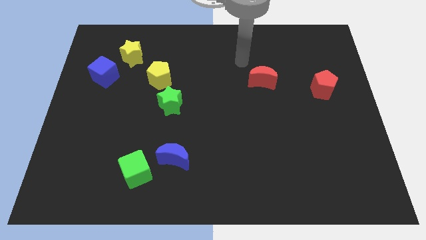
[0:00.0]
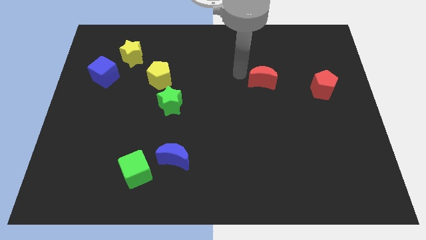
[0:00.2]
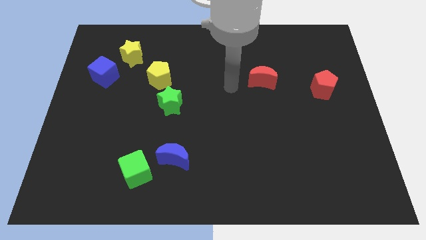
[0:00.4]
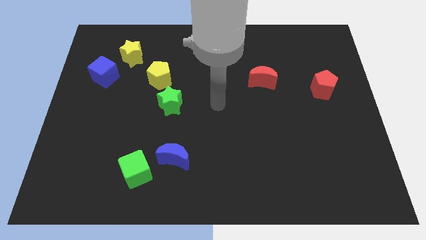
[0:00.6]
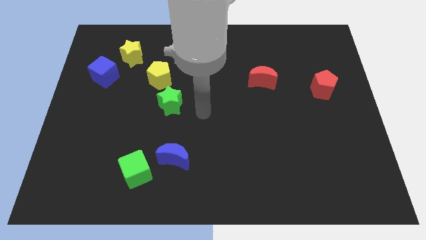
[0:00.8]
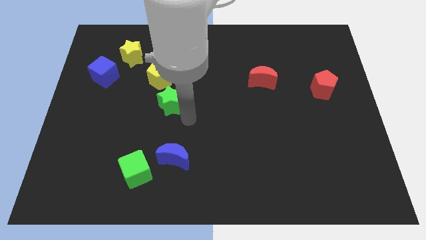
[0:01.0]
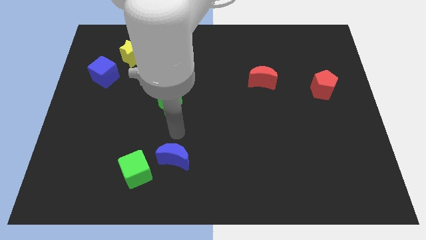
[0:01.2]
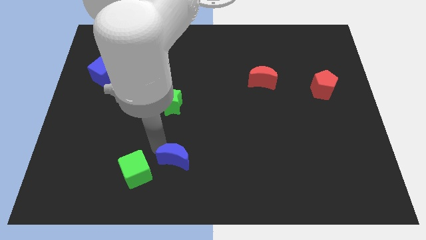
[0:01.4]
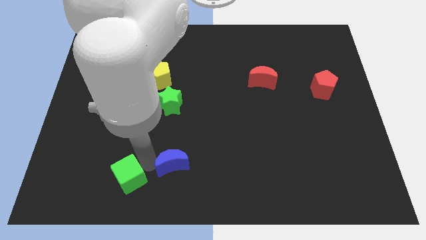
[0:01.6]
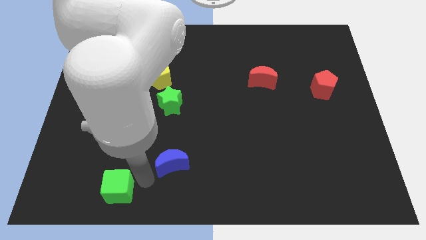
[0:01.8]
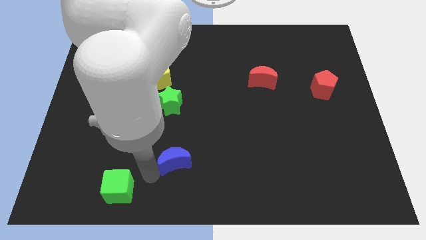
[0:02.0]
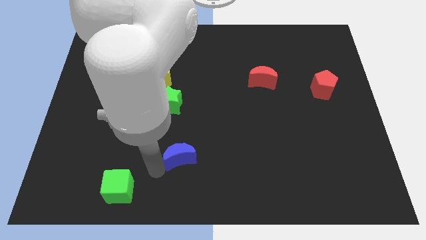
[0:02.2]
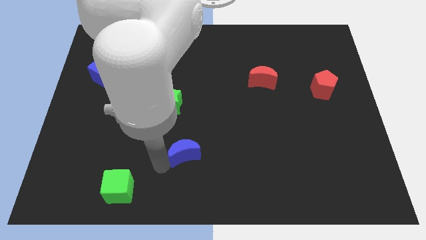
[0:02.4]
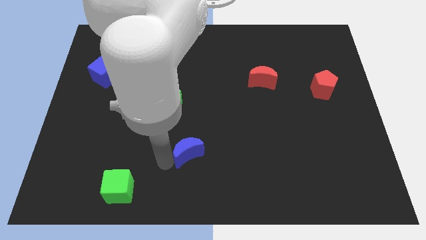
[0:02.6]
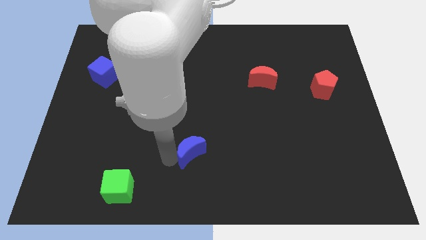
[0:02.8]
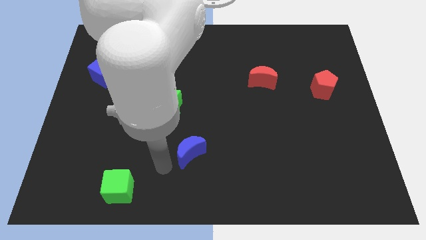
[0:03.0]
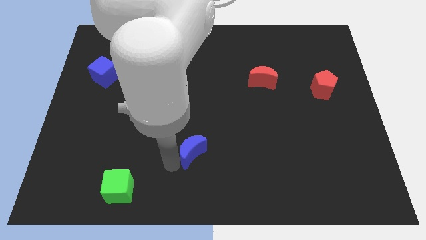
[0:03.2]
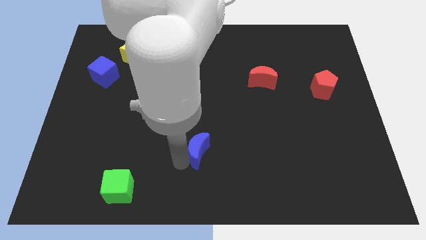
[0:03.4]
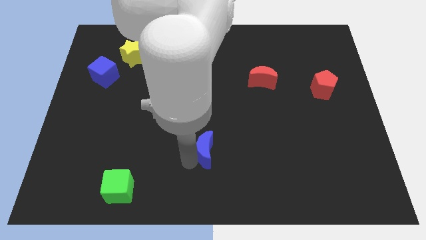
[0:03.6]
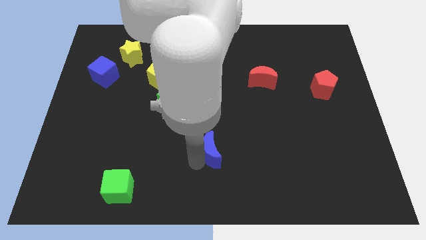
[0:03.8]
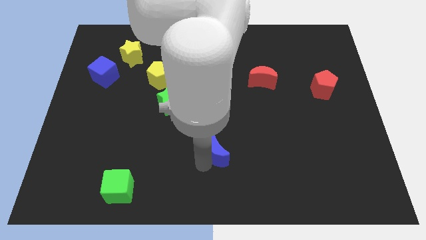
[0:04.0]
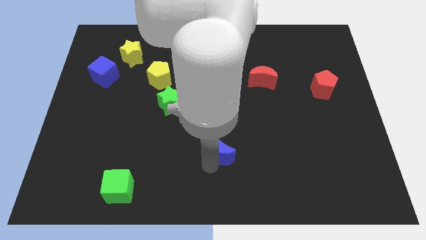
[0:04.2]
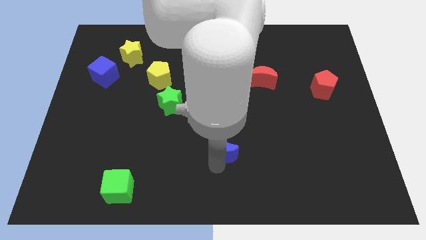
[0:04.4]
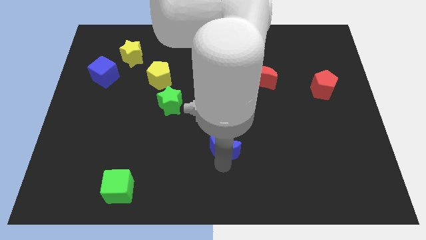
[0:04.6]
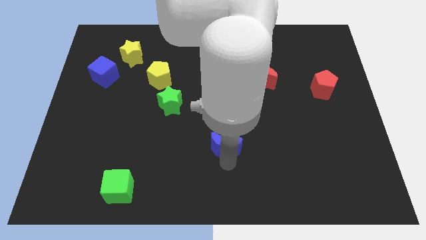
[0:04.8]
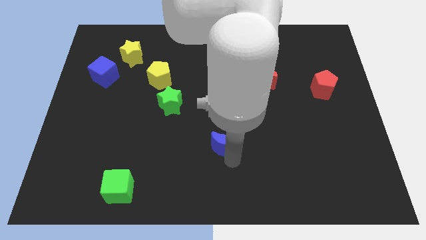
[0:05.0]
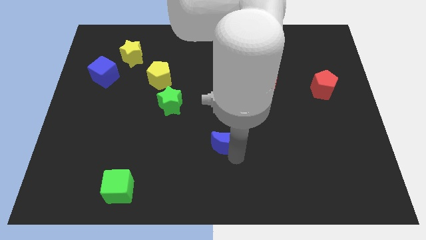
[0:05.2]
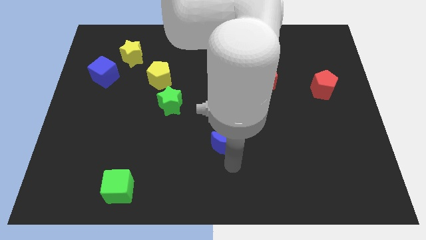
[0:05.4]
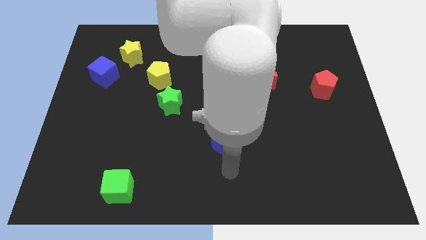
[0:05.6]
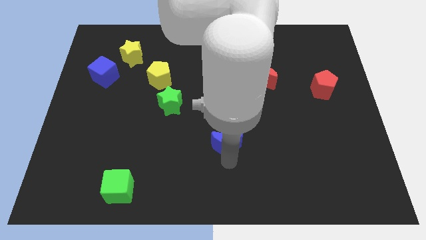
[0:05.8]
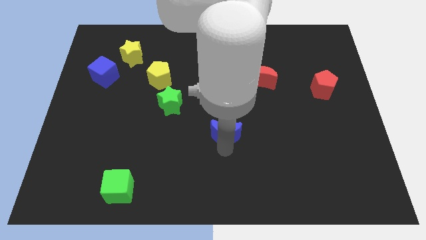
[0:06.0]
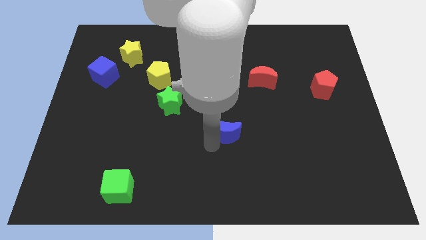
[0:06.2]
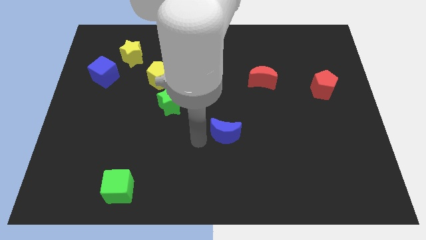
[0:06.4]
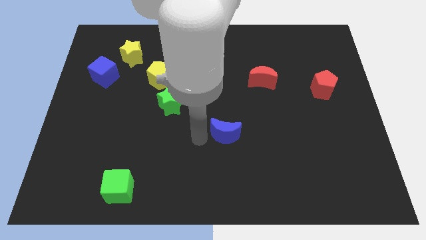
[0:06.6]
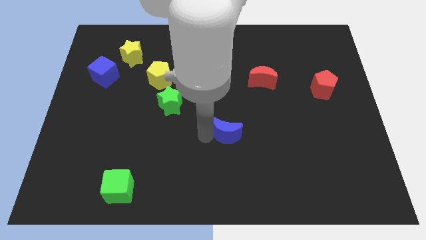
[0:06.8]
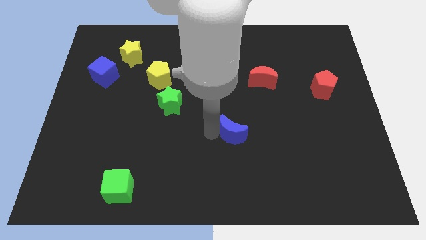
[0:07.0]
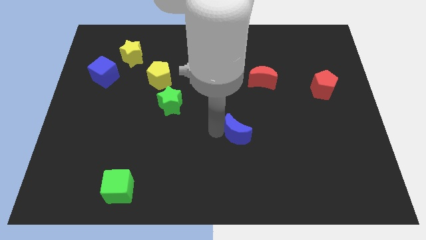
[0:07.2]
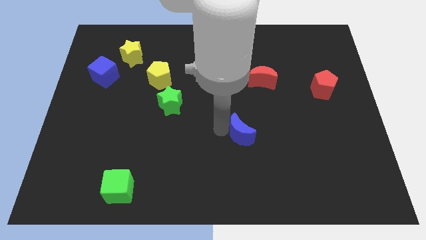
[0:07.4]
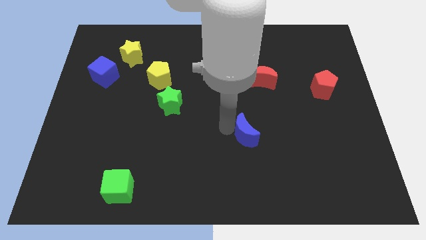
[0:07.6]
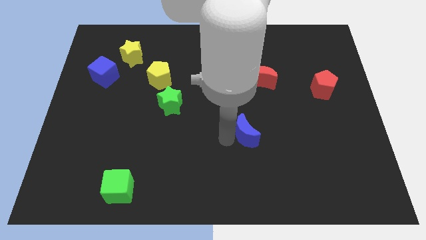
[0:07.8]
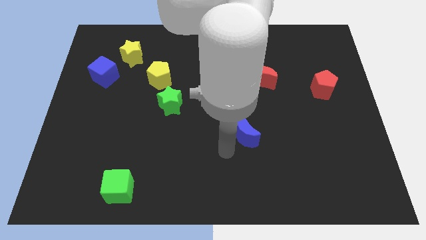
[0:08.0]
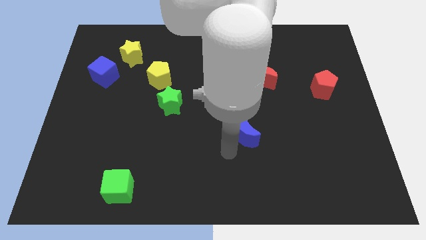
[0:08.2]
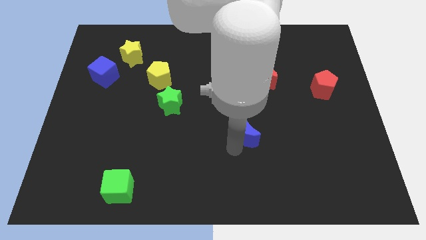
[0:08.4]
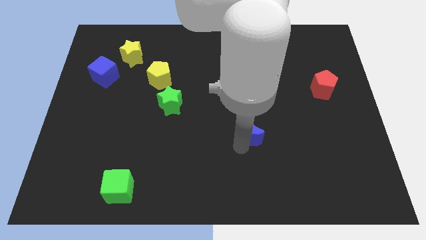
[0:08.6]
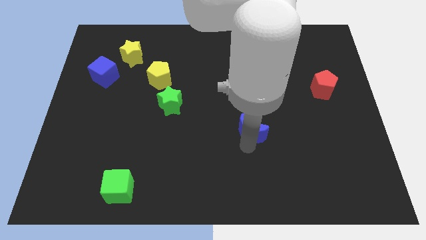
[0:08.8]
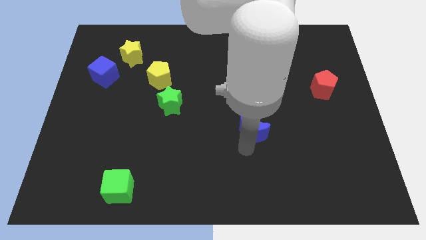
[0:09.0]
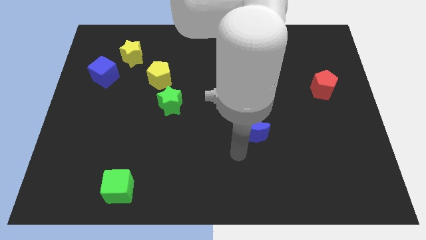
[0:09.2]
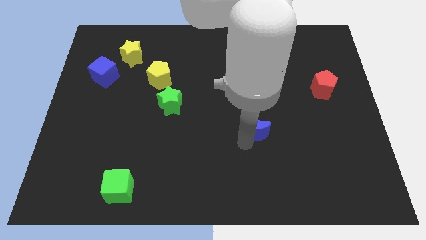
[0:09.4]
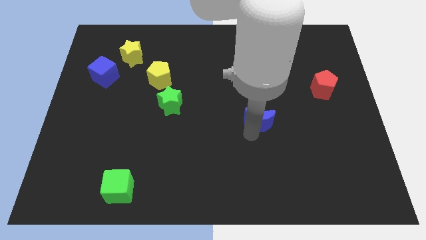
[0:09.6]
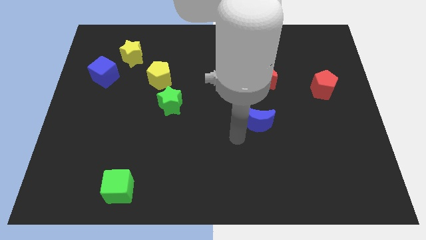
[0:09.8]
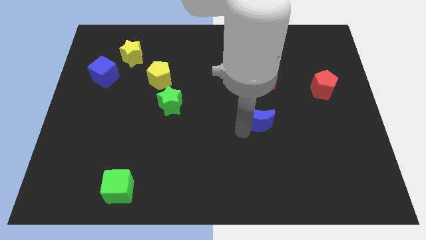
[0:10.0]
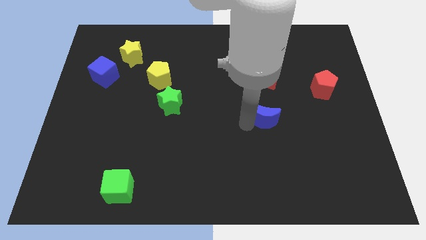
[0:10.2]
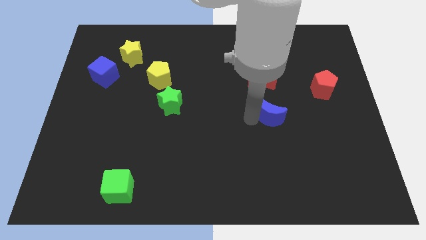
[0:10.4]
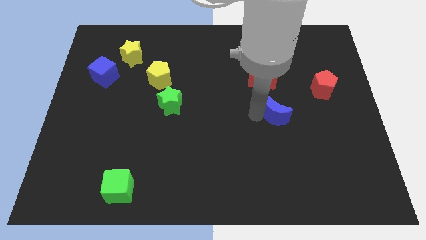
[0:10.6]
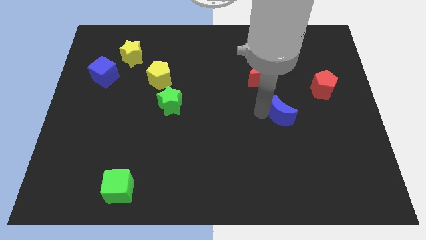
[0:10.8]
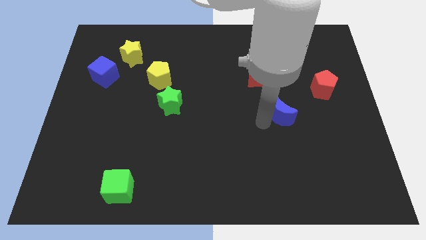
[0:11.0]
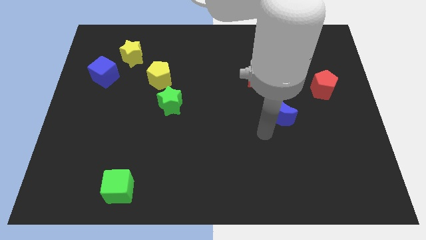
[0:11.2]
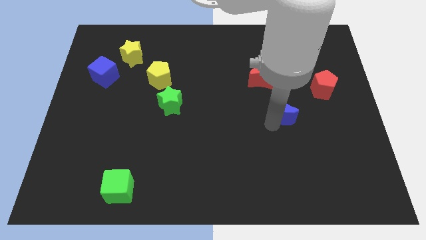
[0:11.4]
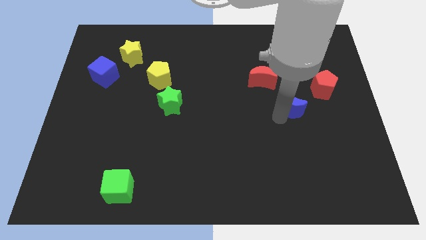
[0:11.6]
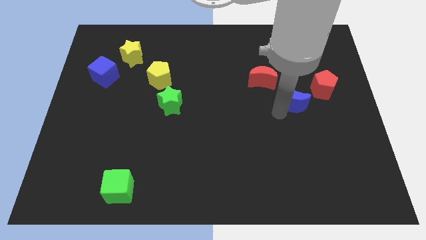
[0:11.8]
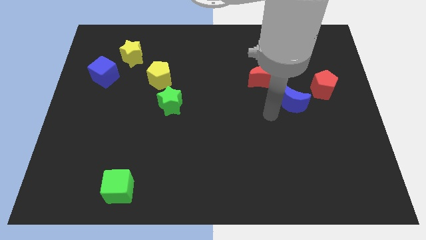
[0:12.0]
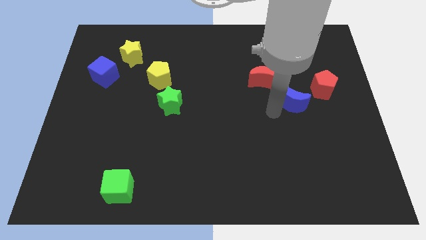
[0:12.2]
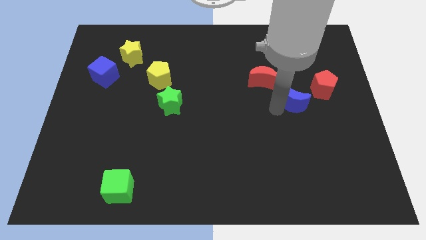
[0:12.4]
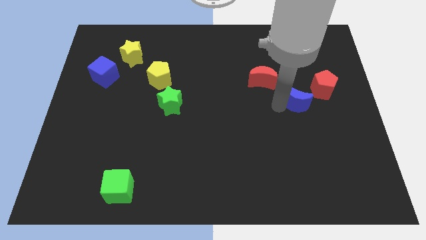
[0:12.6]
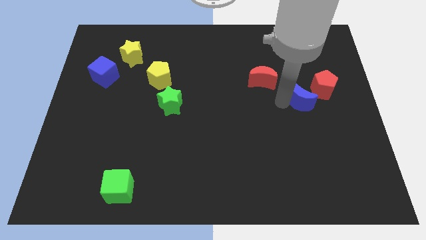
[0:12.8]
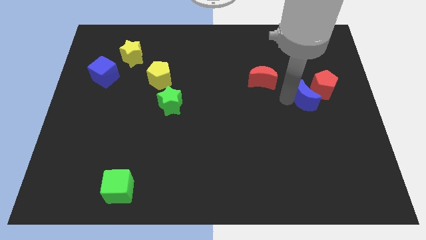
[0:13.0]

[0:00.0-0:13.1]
put the blue moon next to the red pentagon

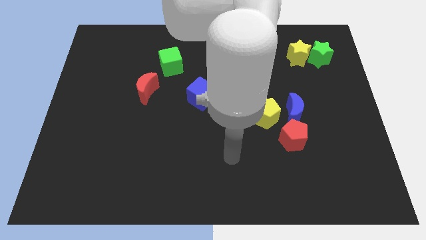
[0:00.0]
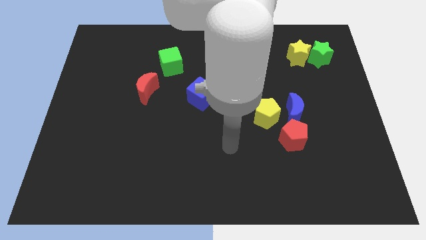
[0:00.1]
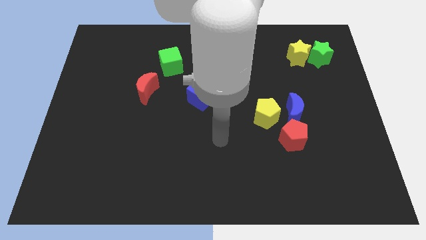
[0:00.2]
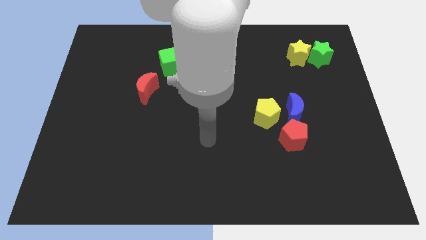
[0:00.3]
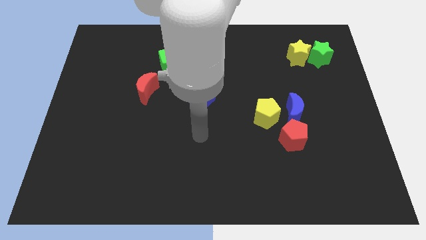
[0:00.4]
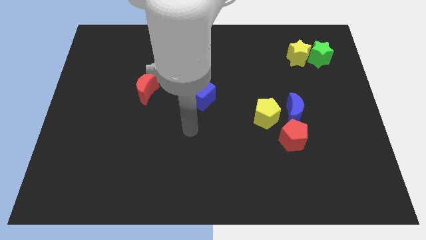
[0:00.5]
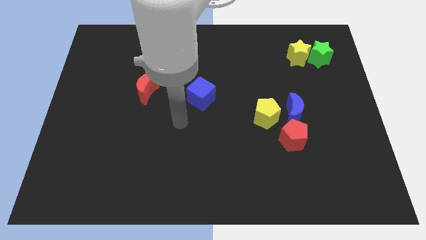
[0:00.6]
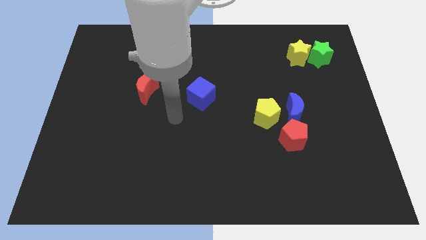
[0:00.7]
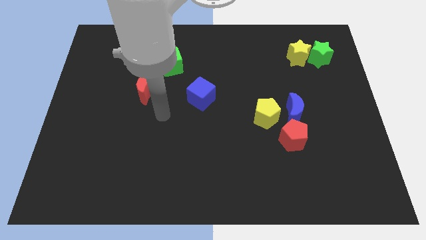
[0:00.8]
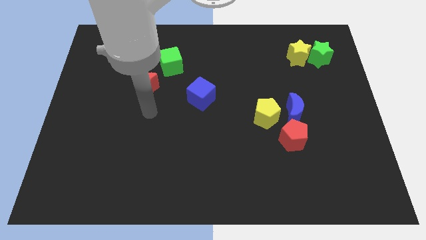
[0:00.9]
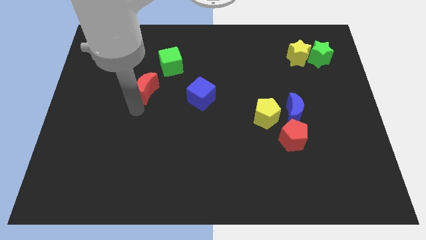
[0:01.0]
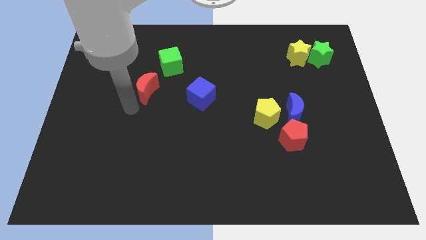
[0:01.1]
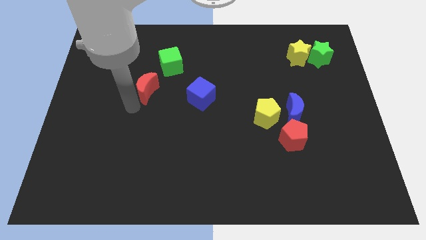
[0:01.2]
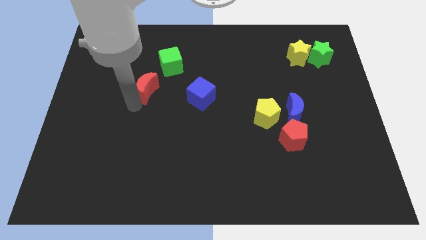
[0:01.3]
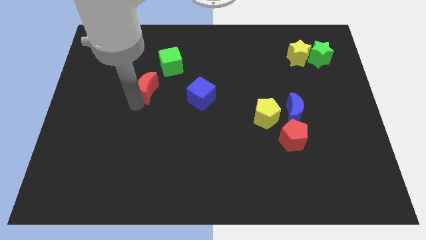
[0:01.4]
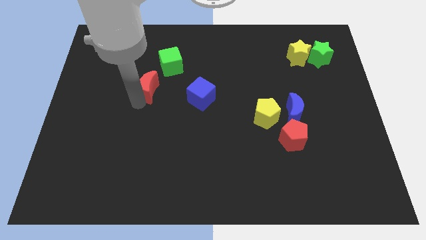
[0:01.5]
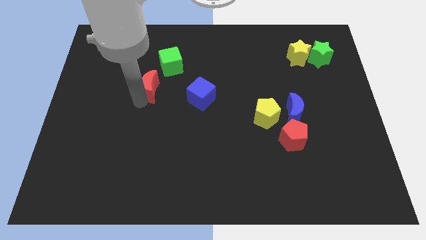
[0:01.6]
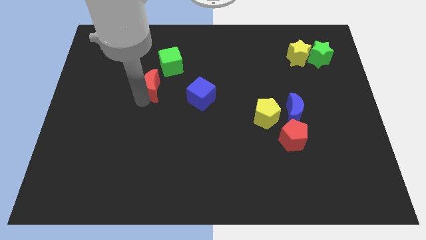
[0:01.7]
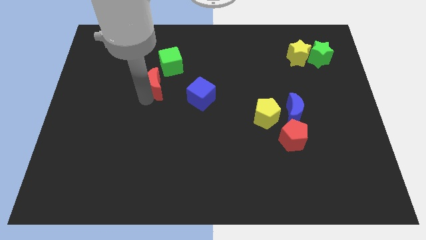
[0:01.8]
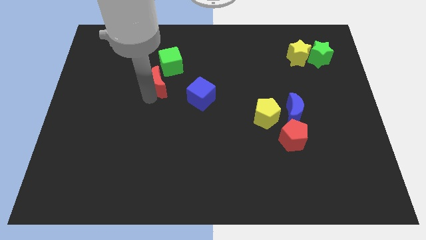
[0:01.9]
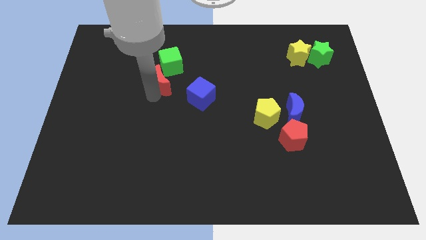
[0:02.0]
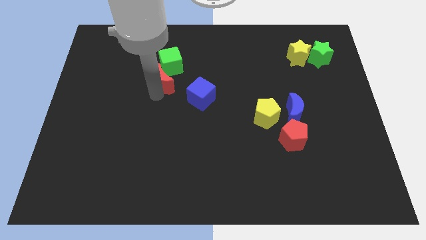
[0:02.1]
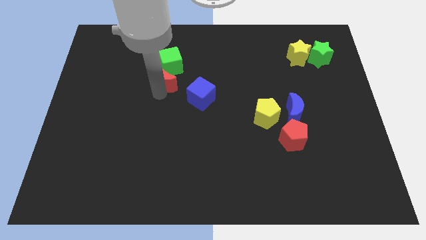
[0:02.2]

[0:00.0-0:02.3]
slide the red moon next to the green cube
